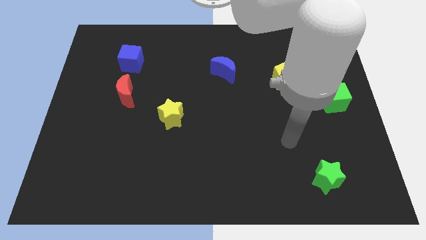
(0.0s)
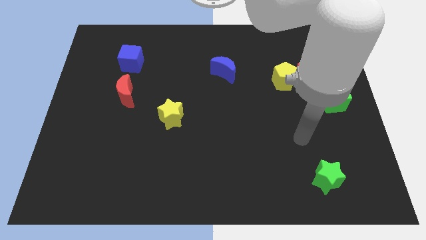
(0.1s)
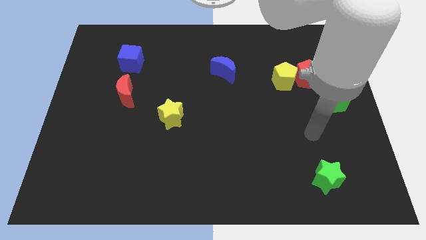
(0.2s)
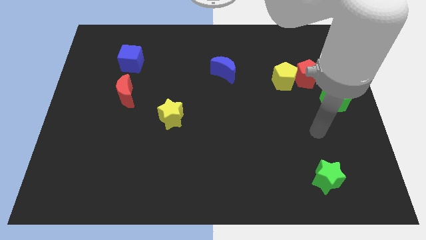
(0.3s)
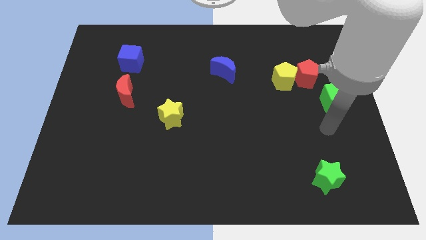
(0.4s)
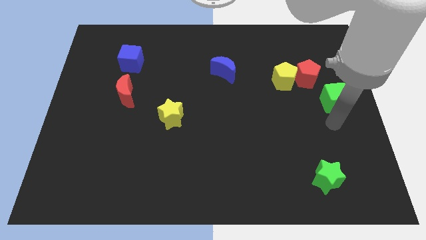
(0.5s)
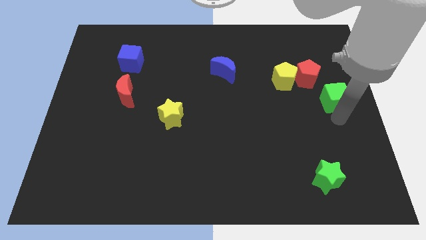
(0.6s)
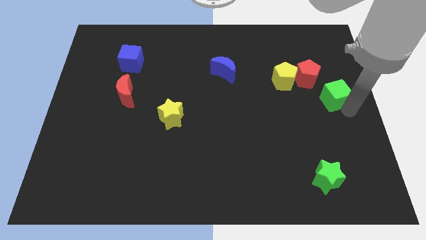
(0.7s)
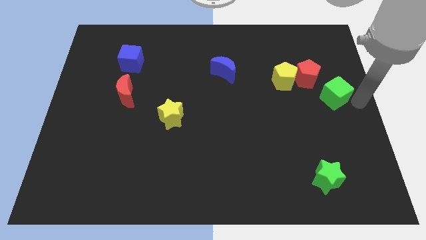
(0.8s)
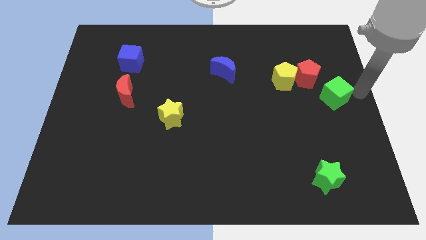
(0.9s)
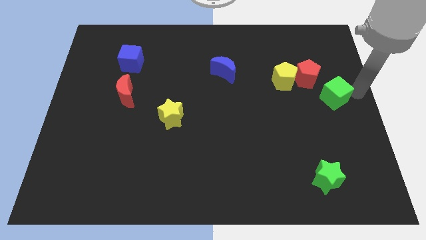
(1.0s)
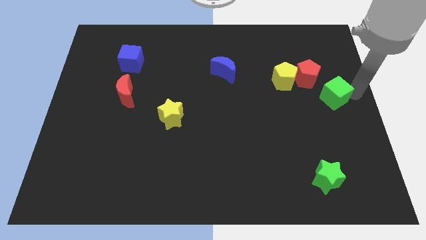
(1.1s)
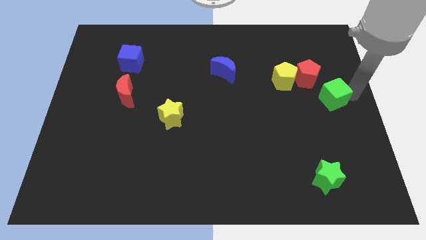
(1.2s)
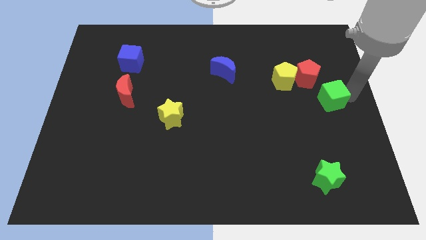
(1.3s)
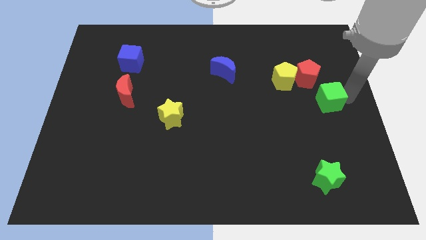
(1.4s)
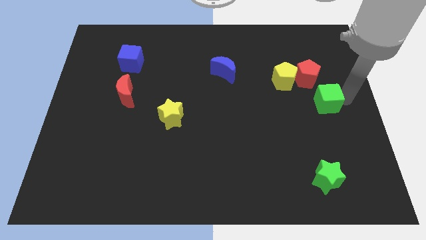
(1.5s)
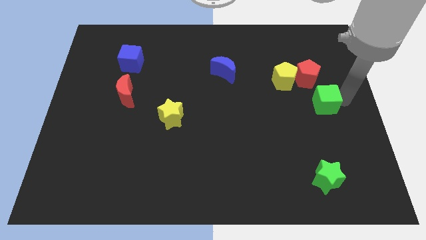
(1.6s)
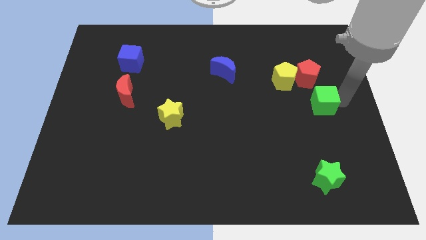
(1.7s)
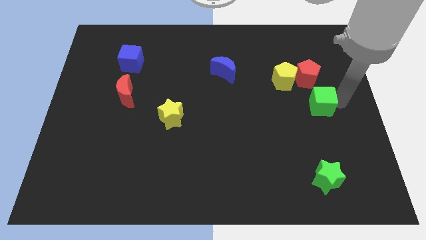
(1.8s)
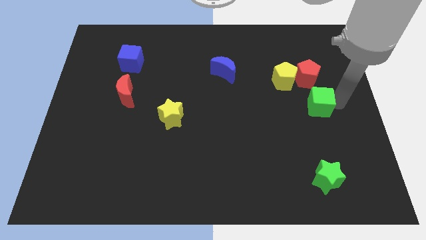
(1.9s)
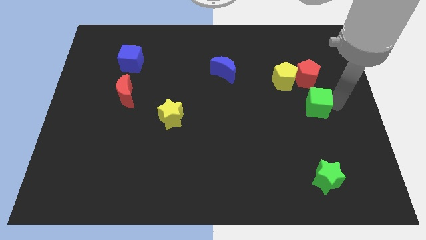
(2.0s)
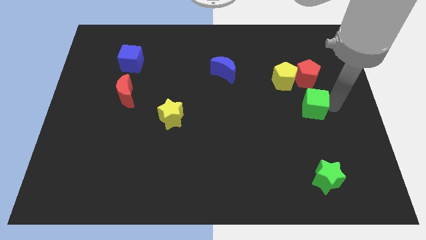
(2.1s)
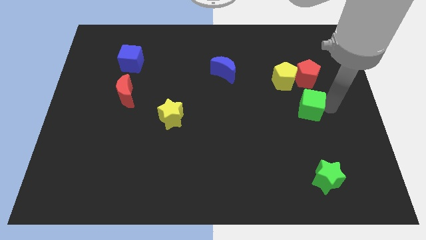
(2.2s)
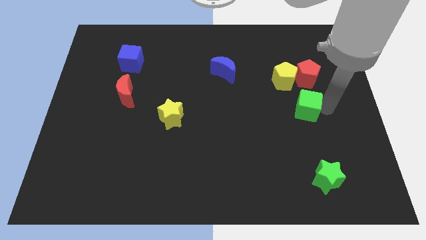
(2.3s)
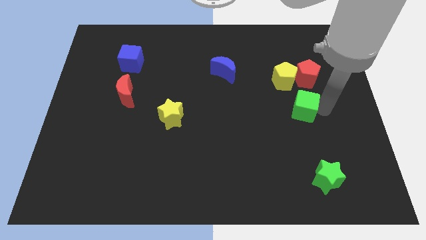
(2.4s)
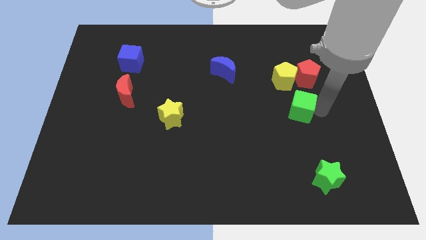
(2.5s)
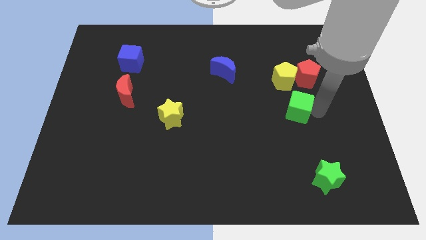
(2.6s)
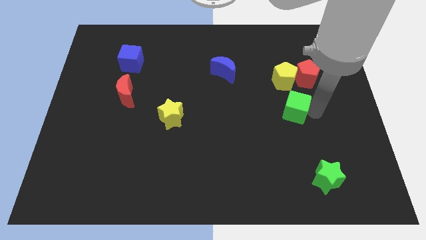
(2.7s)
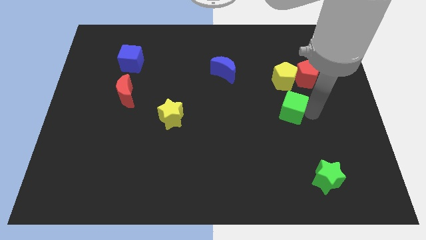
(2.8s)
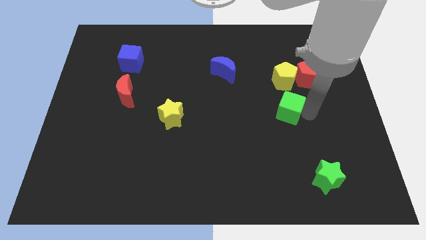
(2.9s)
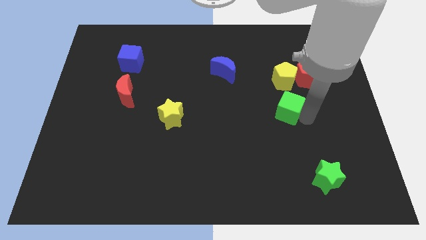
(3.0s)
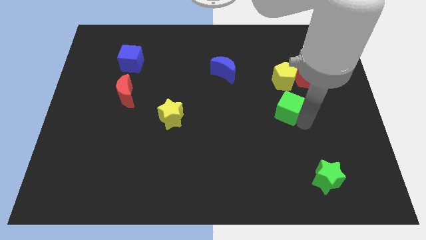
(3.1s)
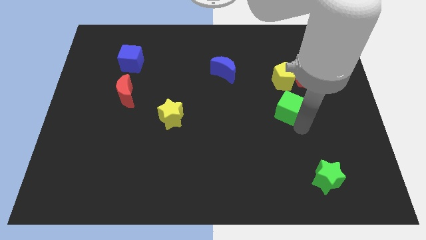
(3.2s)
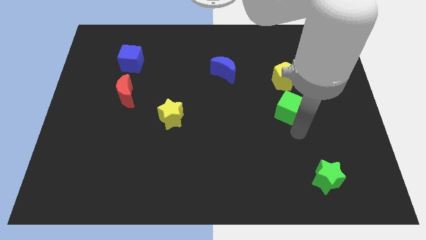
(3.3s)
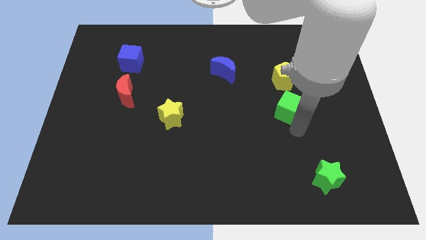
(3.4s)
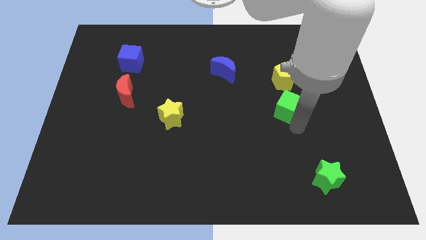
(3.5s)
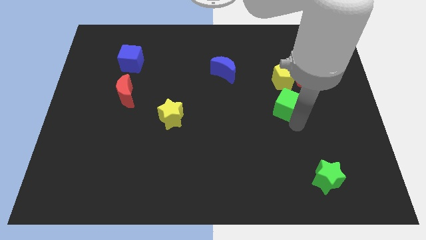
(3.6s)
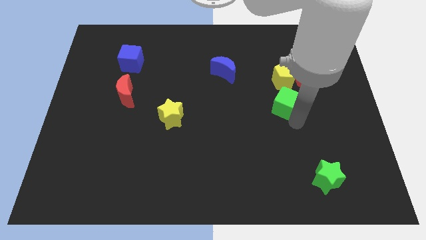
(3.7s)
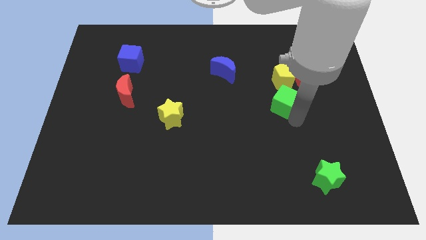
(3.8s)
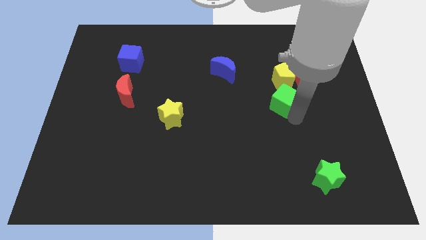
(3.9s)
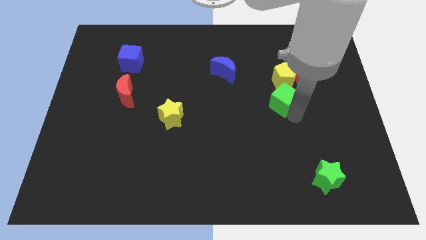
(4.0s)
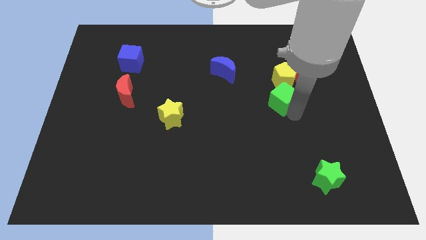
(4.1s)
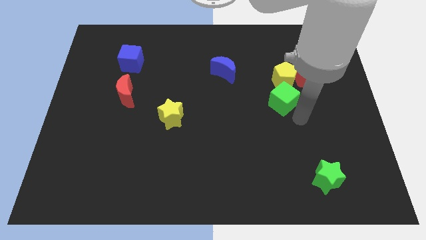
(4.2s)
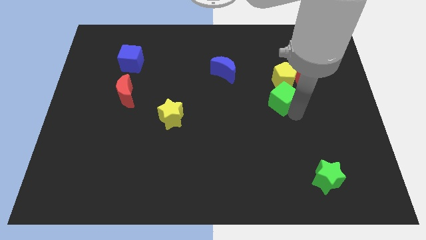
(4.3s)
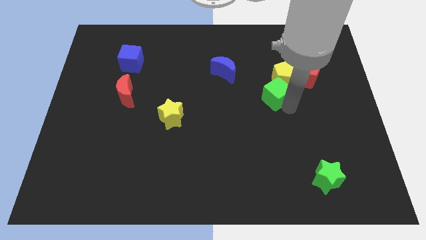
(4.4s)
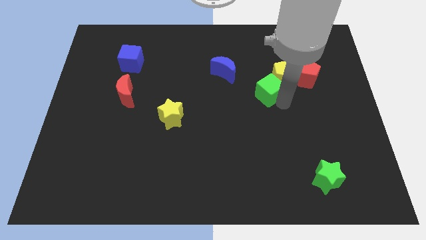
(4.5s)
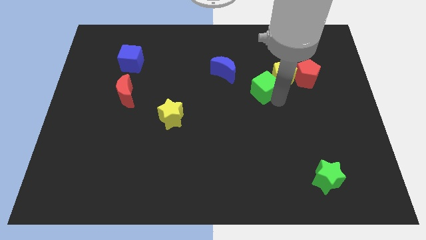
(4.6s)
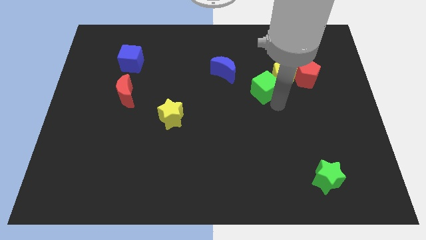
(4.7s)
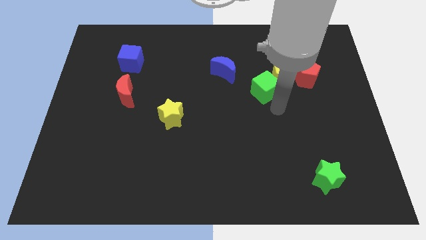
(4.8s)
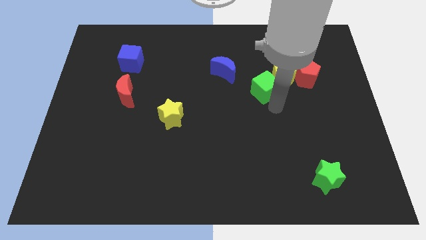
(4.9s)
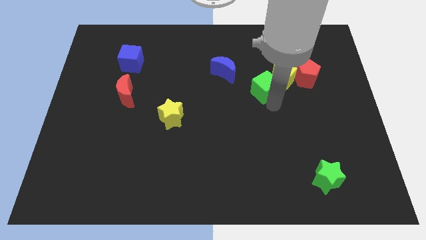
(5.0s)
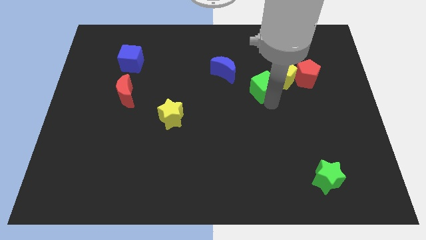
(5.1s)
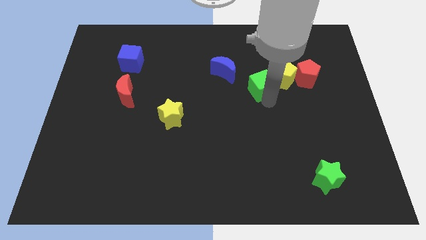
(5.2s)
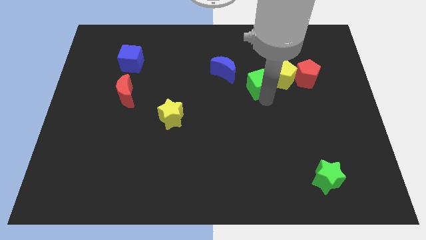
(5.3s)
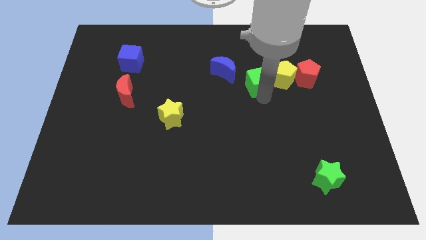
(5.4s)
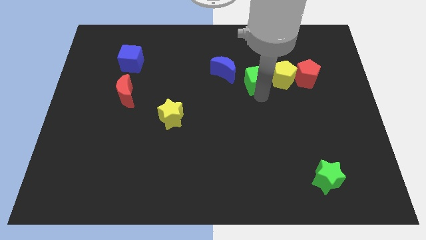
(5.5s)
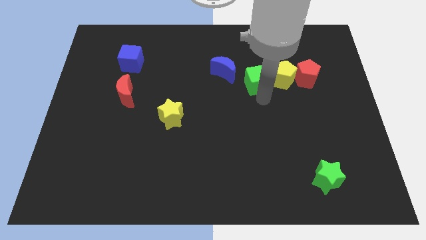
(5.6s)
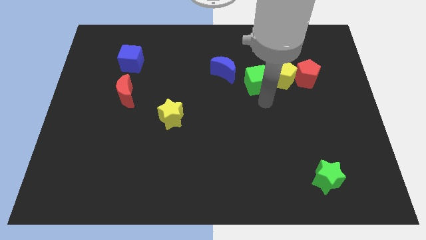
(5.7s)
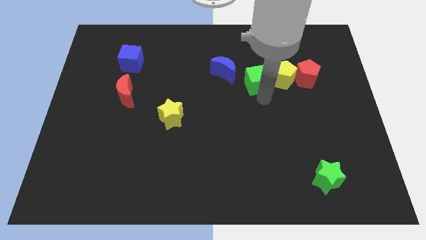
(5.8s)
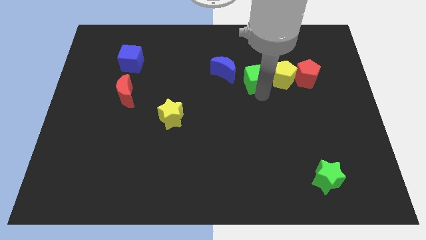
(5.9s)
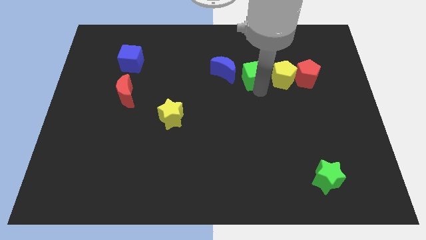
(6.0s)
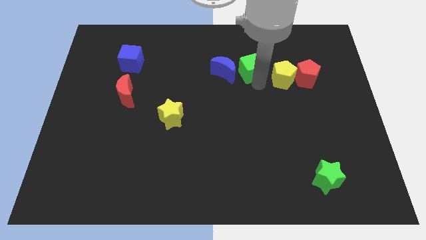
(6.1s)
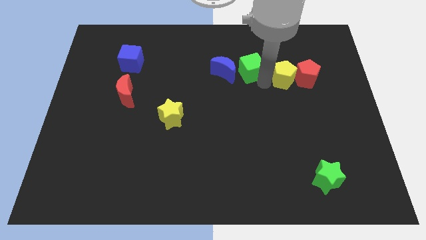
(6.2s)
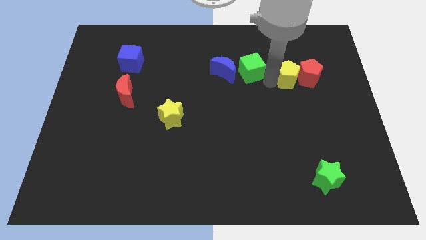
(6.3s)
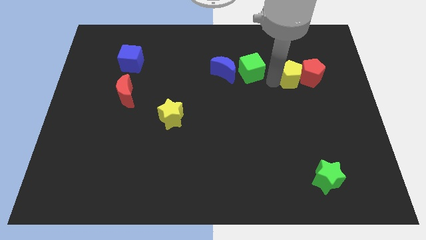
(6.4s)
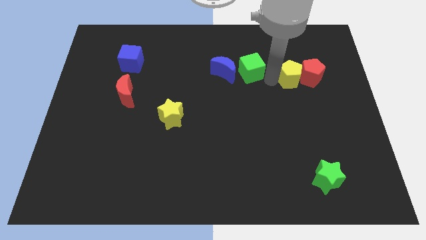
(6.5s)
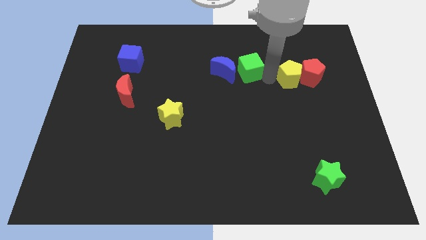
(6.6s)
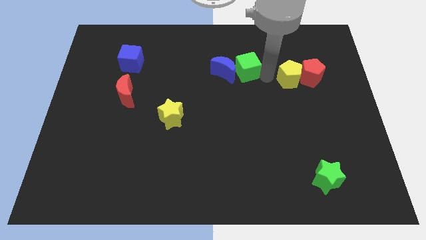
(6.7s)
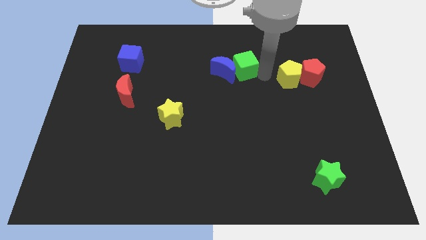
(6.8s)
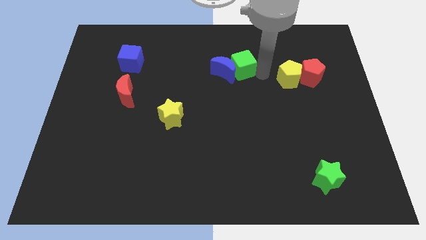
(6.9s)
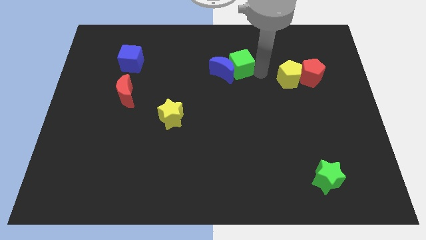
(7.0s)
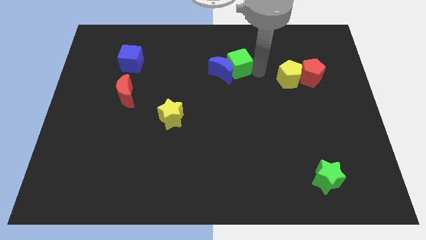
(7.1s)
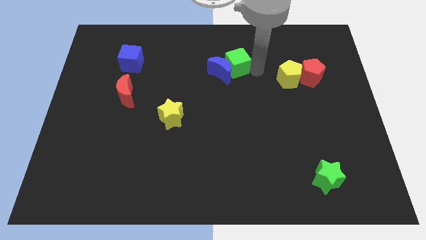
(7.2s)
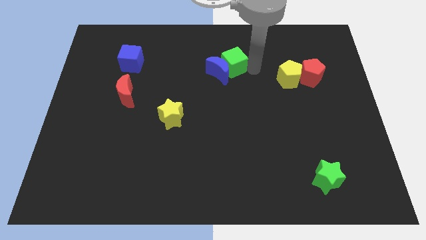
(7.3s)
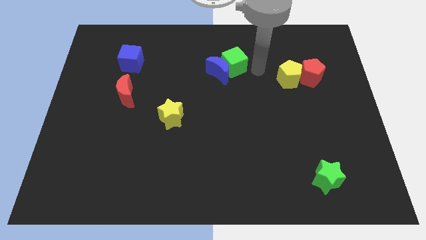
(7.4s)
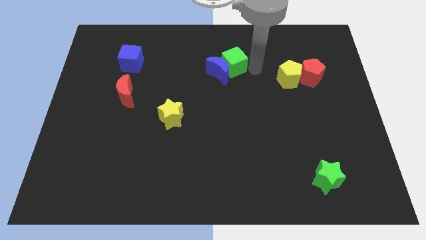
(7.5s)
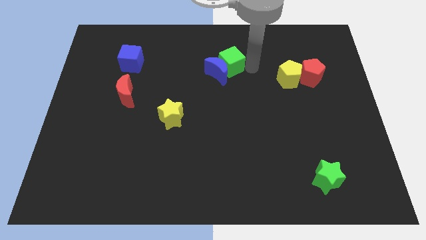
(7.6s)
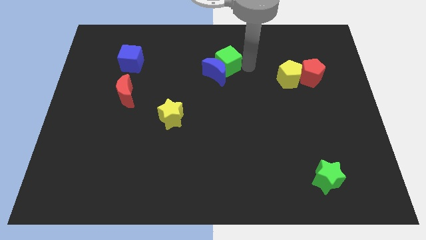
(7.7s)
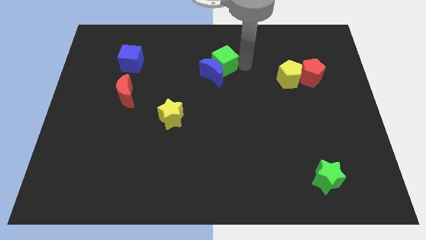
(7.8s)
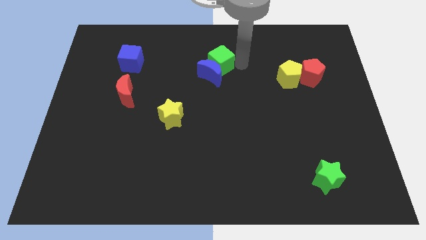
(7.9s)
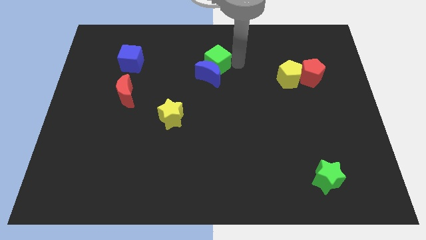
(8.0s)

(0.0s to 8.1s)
slide the green cube to the top left of the blue moon
